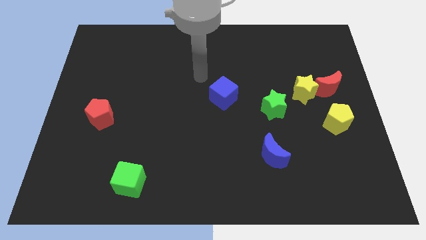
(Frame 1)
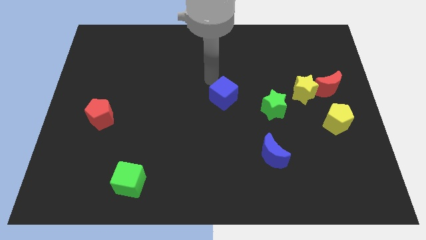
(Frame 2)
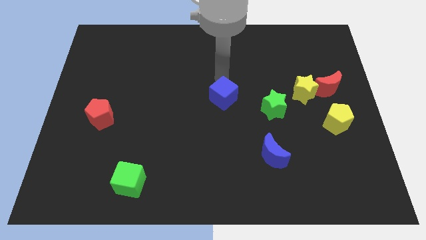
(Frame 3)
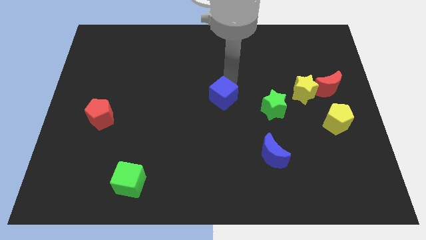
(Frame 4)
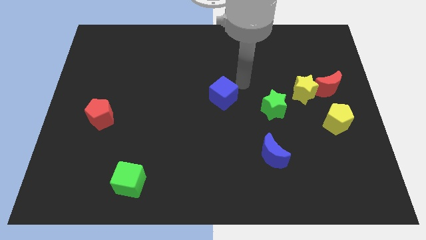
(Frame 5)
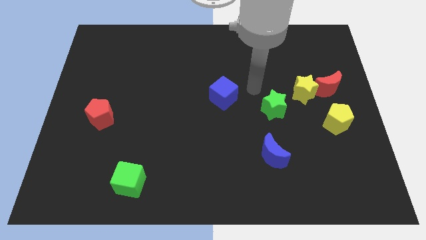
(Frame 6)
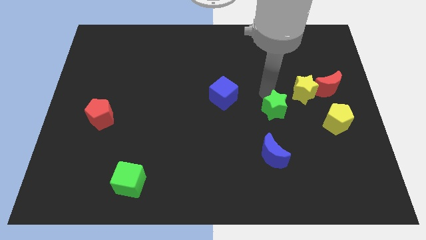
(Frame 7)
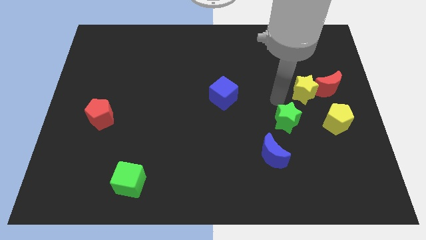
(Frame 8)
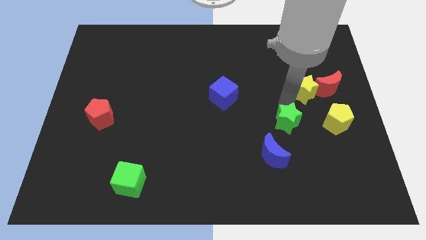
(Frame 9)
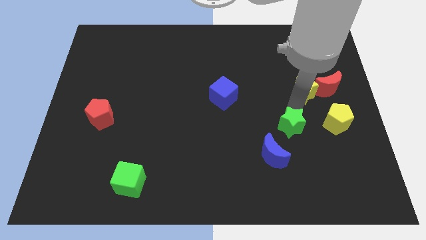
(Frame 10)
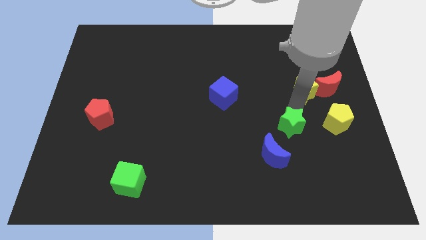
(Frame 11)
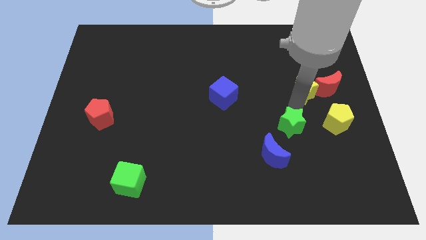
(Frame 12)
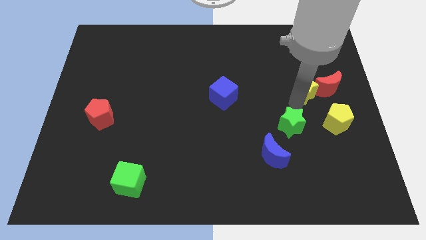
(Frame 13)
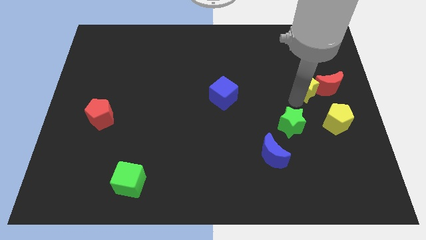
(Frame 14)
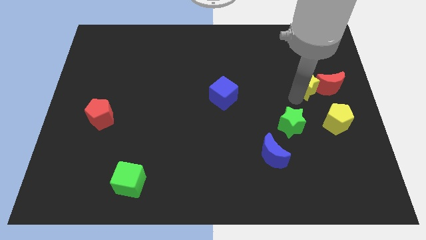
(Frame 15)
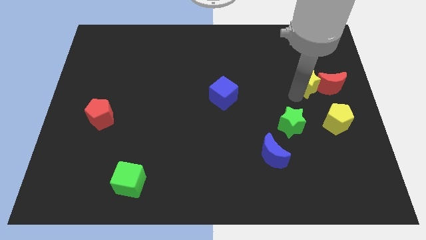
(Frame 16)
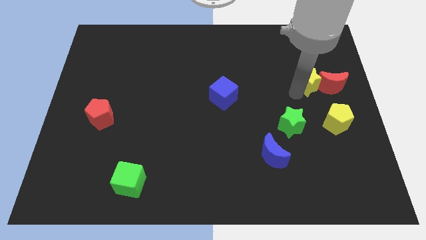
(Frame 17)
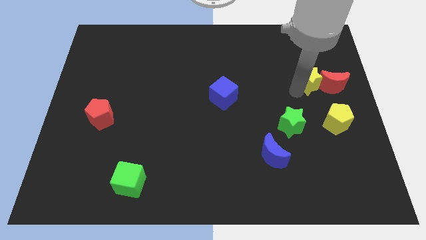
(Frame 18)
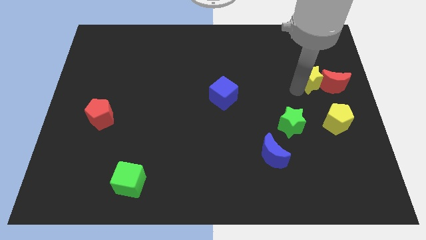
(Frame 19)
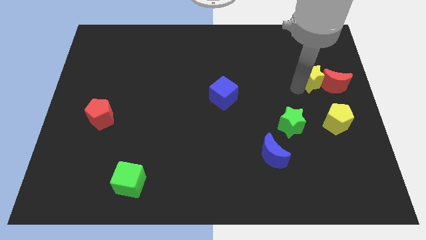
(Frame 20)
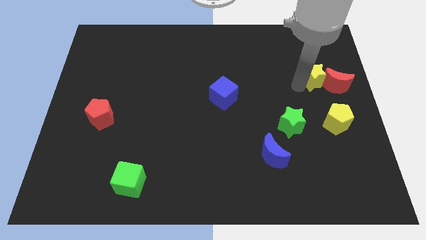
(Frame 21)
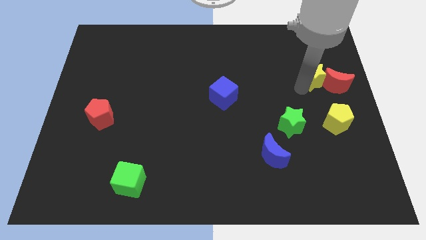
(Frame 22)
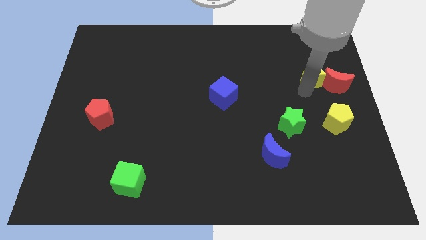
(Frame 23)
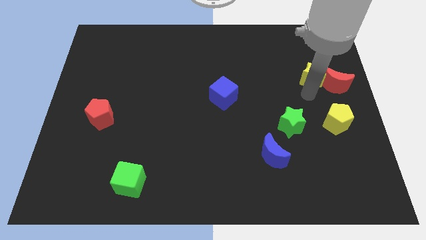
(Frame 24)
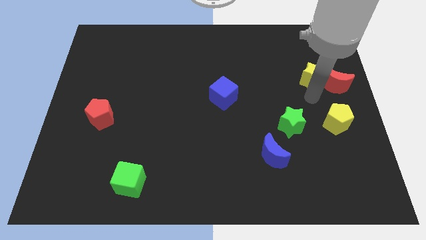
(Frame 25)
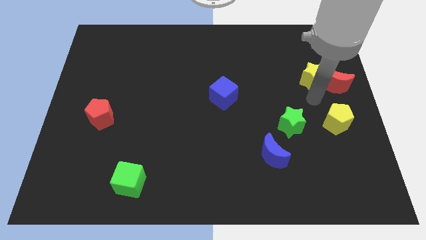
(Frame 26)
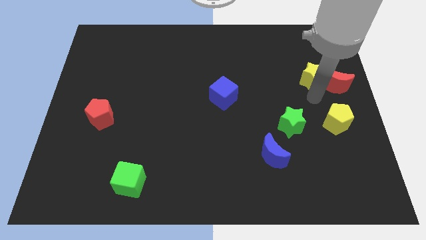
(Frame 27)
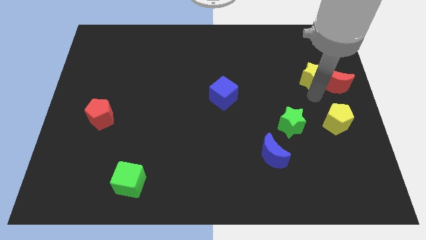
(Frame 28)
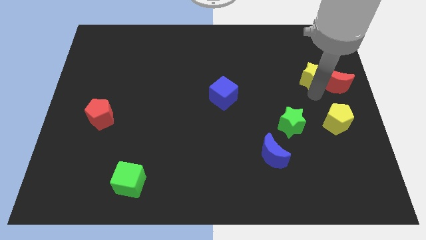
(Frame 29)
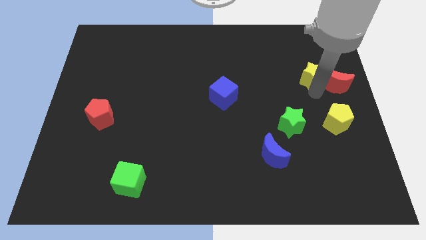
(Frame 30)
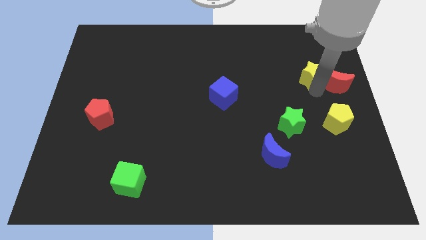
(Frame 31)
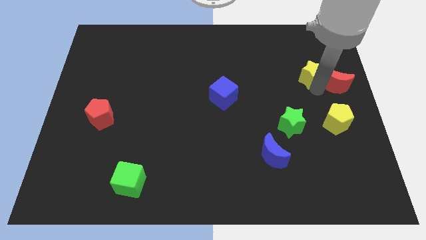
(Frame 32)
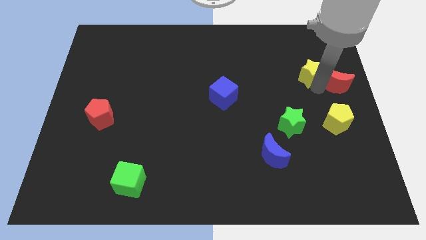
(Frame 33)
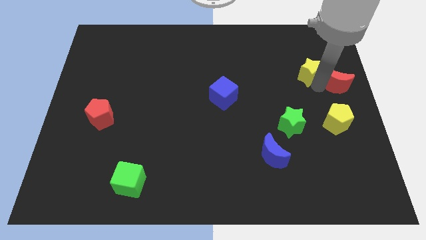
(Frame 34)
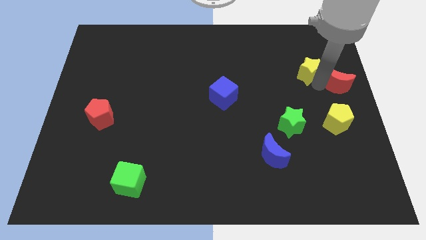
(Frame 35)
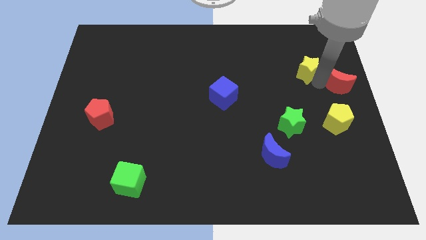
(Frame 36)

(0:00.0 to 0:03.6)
separate the yellow star from the red moon and green star

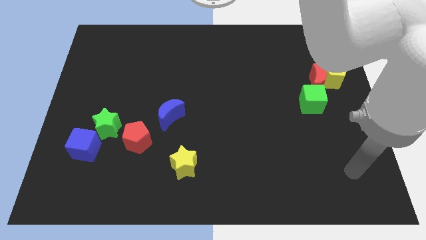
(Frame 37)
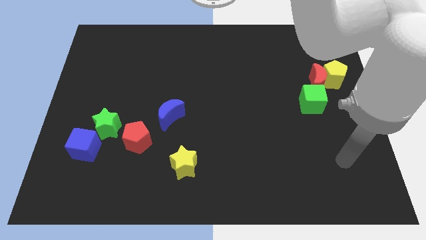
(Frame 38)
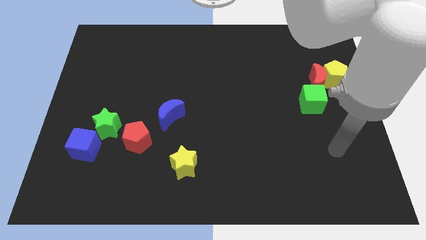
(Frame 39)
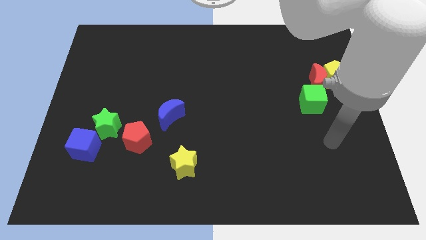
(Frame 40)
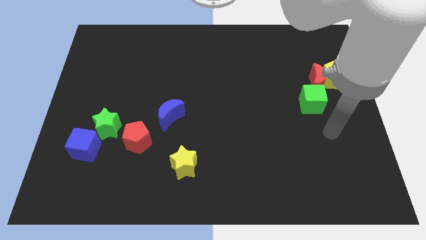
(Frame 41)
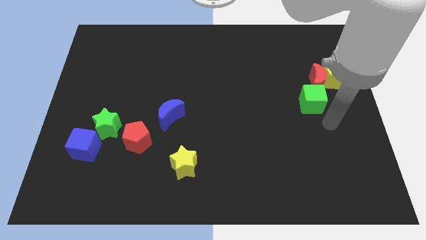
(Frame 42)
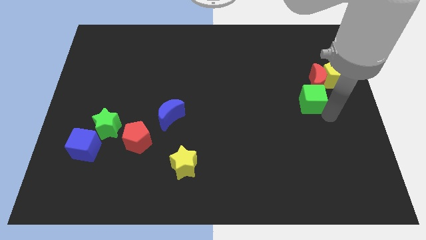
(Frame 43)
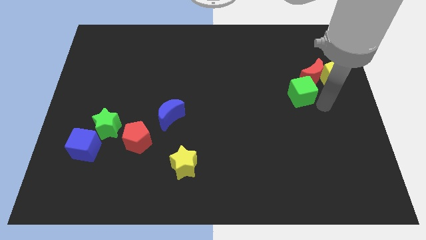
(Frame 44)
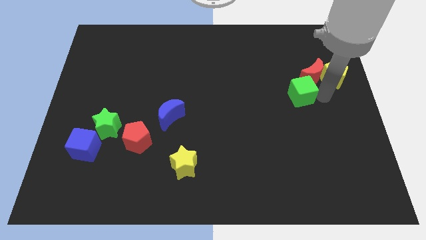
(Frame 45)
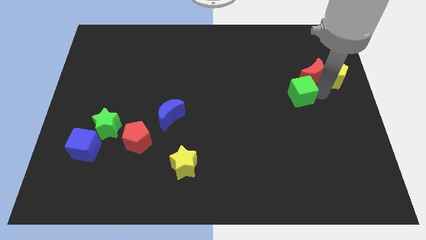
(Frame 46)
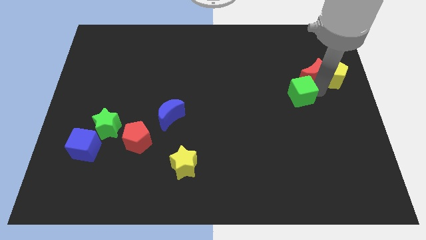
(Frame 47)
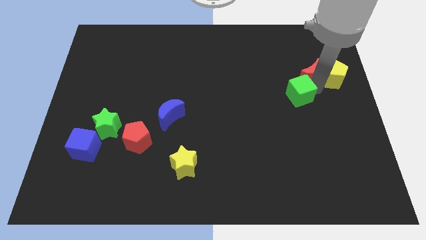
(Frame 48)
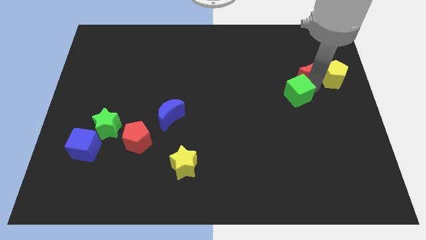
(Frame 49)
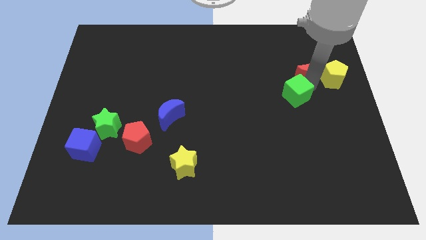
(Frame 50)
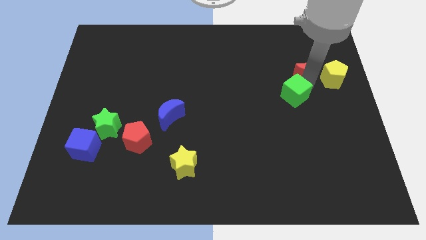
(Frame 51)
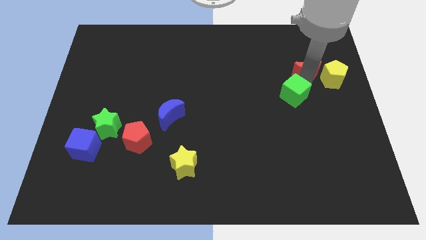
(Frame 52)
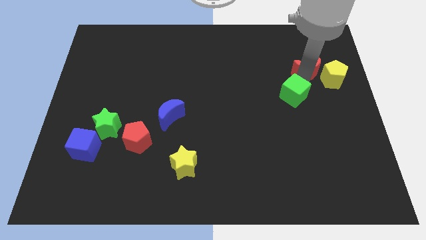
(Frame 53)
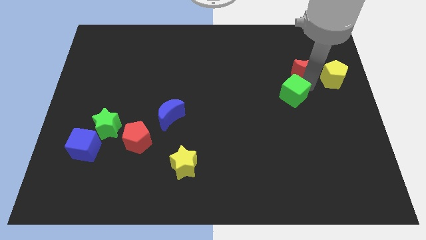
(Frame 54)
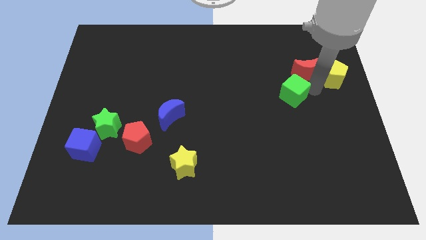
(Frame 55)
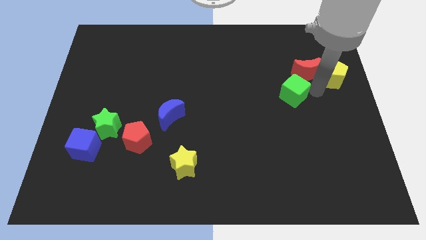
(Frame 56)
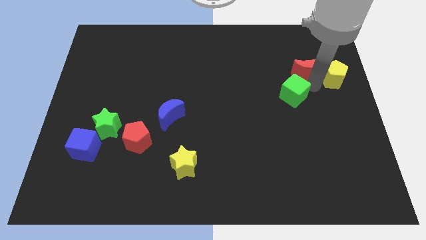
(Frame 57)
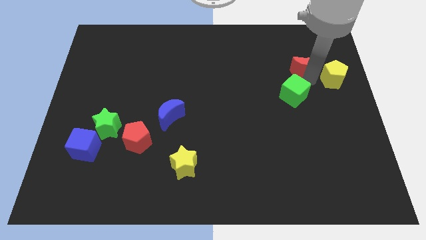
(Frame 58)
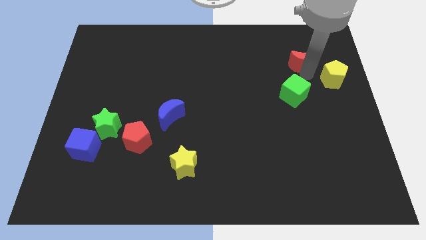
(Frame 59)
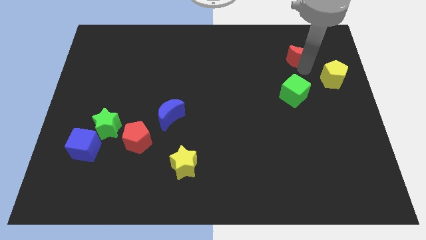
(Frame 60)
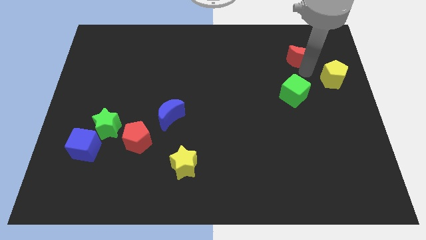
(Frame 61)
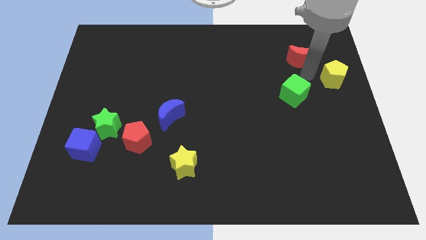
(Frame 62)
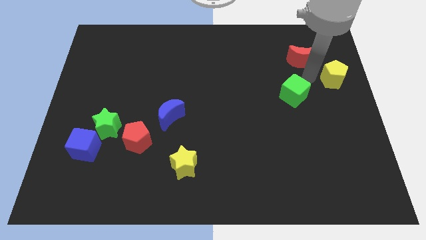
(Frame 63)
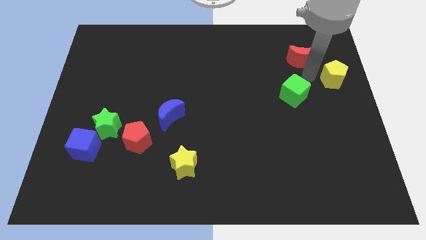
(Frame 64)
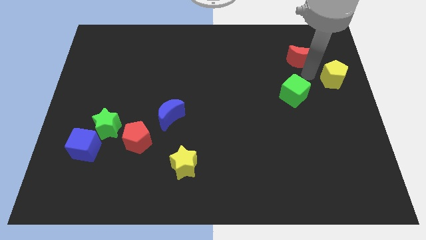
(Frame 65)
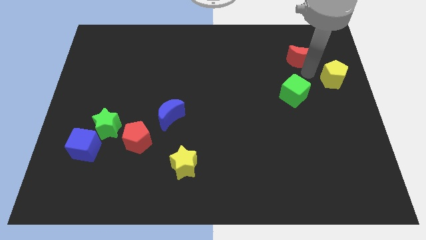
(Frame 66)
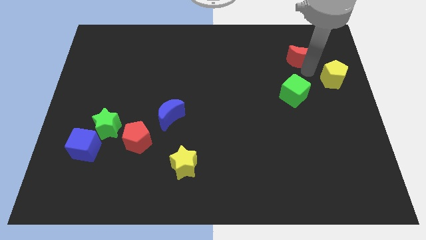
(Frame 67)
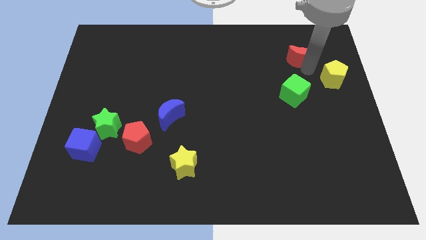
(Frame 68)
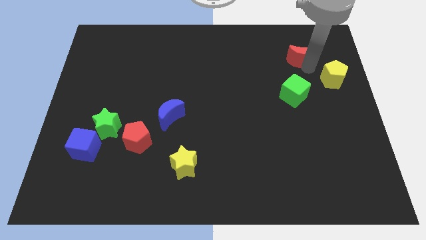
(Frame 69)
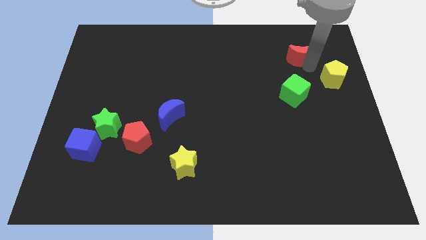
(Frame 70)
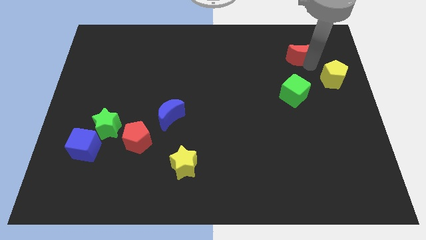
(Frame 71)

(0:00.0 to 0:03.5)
separate the red moon from the yellow pentagon and green cube

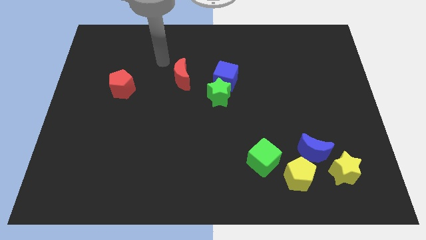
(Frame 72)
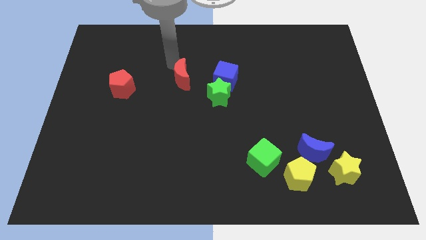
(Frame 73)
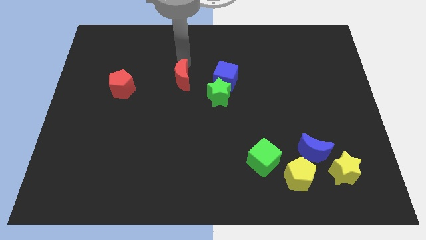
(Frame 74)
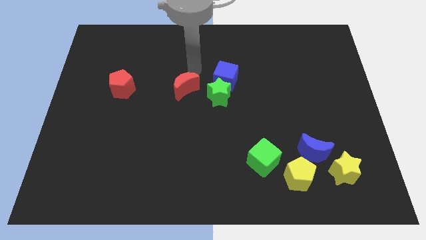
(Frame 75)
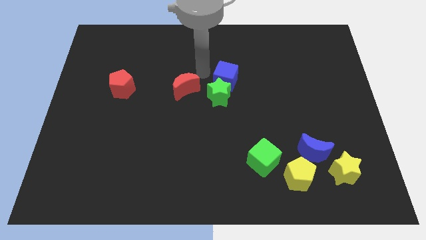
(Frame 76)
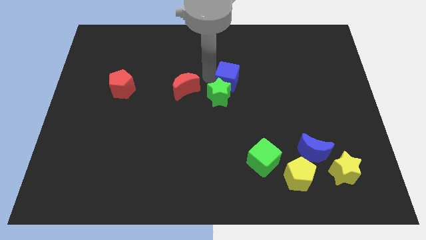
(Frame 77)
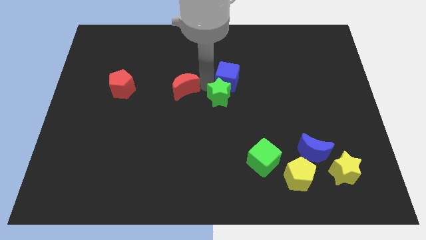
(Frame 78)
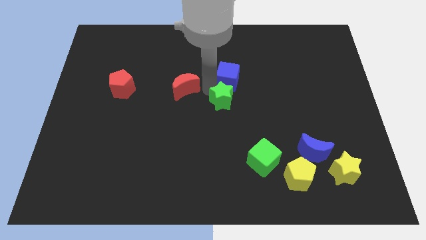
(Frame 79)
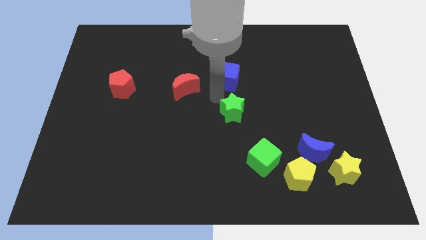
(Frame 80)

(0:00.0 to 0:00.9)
separate the blue cube from the green star

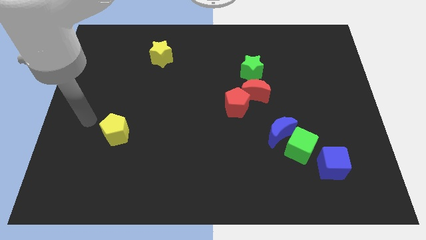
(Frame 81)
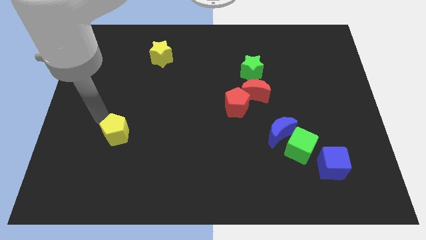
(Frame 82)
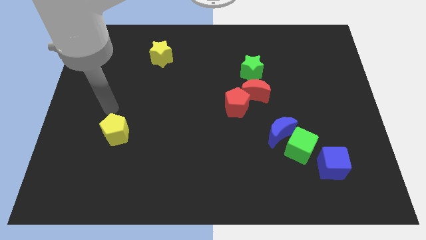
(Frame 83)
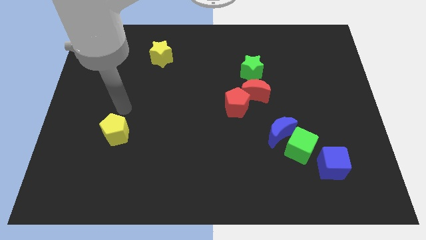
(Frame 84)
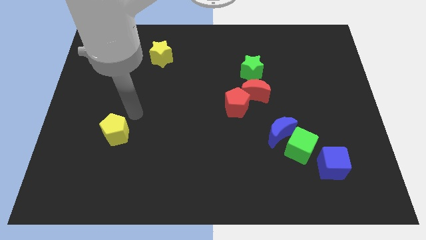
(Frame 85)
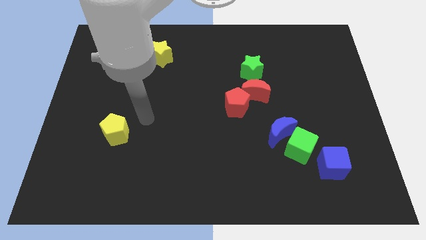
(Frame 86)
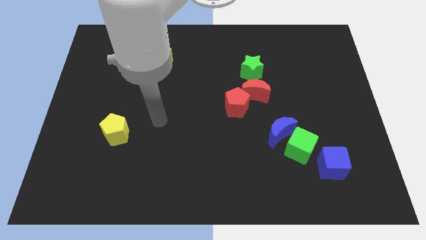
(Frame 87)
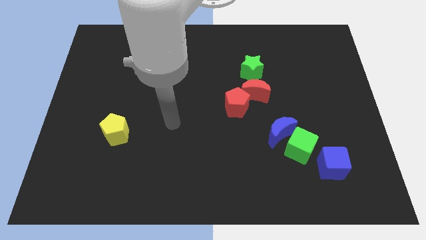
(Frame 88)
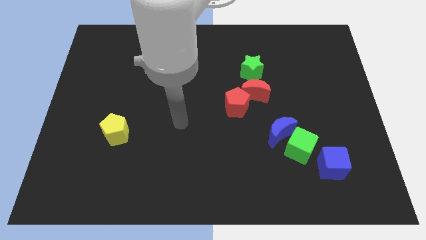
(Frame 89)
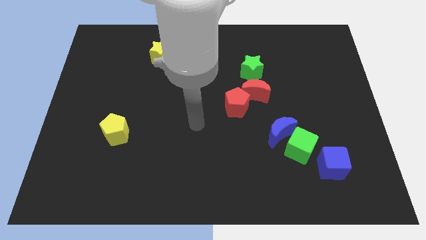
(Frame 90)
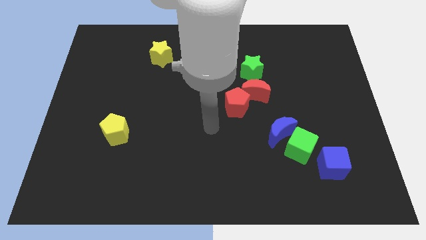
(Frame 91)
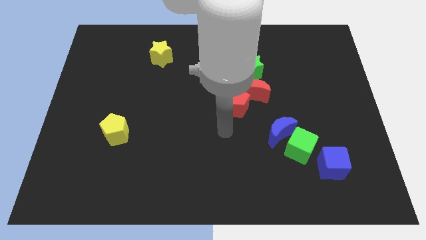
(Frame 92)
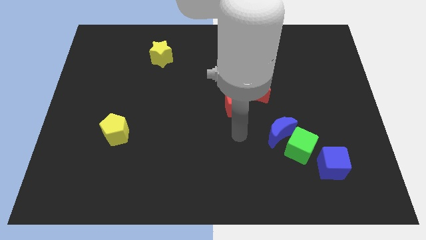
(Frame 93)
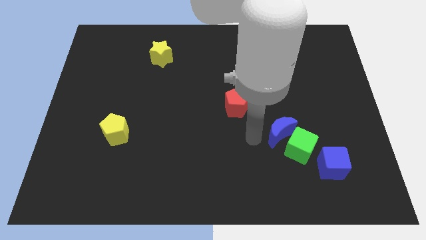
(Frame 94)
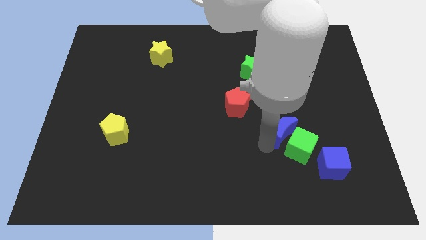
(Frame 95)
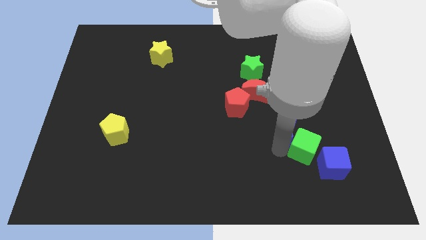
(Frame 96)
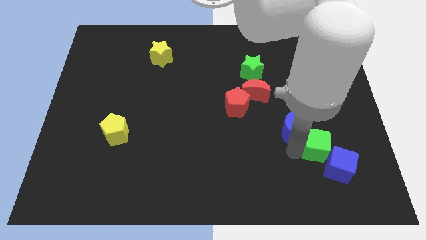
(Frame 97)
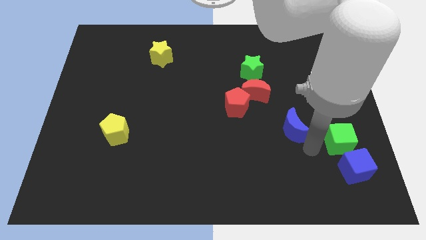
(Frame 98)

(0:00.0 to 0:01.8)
pull the blue moon apart from the green cube
